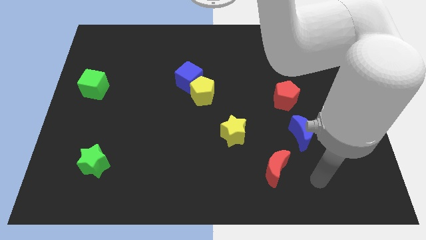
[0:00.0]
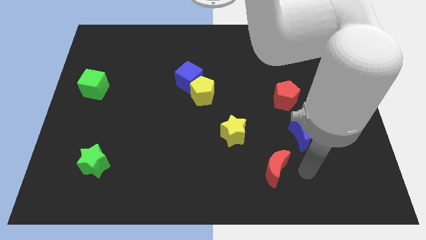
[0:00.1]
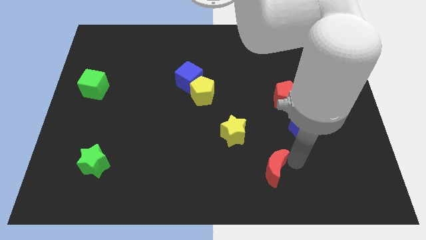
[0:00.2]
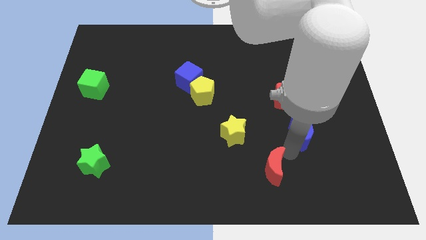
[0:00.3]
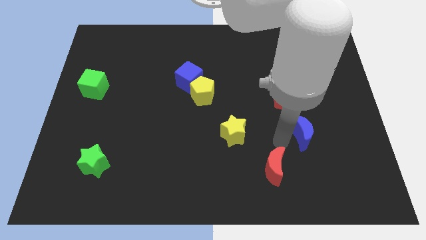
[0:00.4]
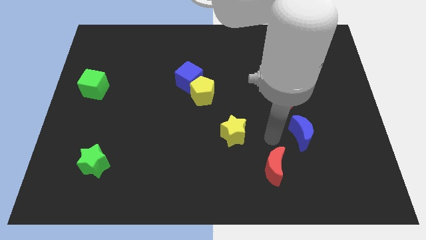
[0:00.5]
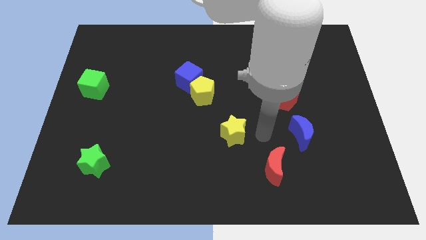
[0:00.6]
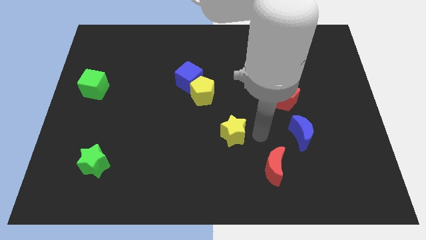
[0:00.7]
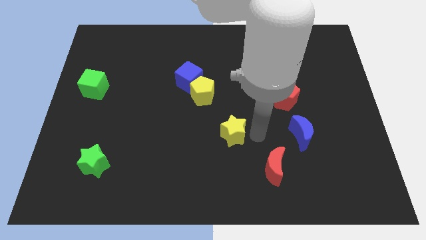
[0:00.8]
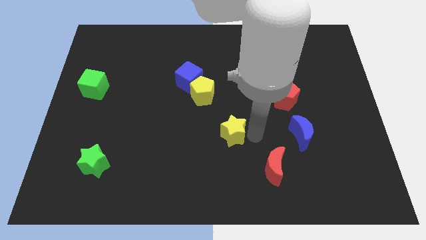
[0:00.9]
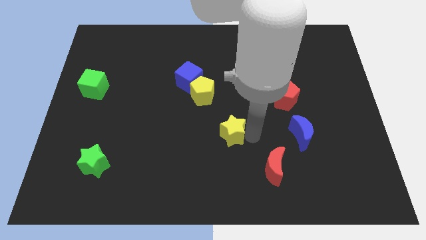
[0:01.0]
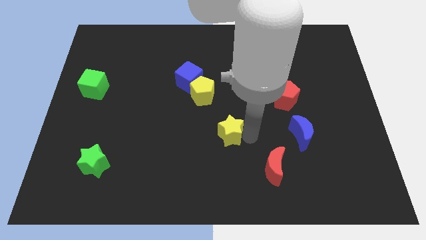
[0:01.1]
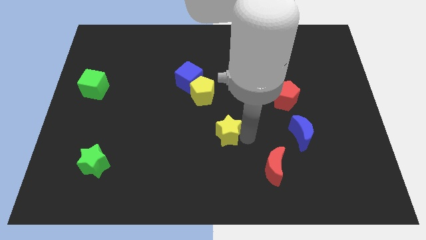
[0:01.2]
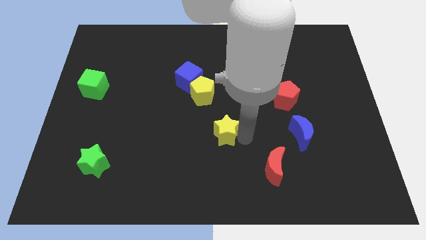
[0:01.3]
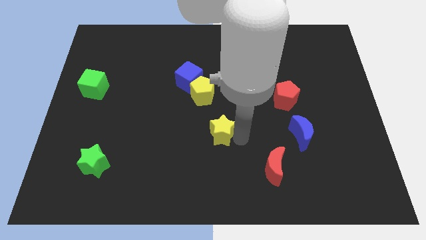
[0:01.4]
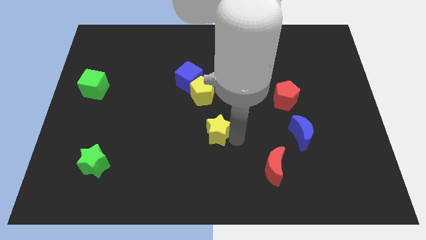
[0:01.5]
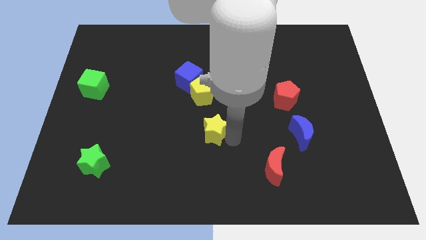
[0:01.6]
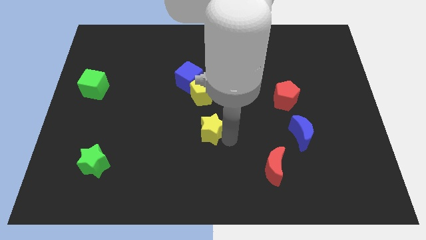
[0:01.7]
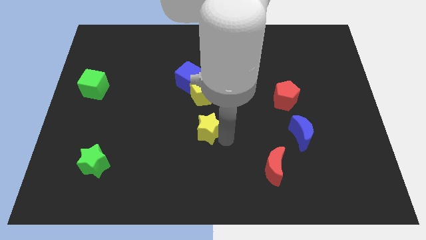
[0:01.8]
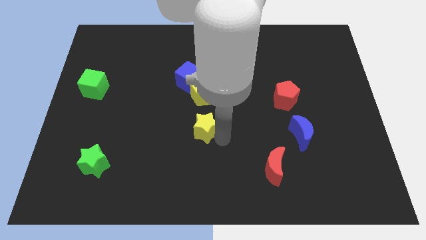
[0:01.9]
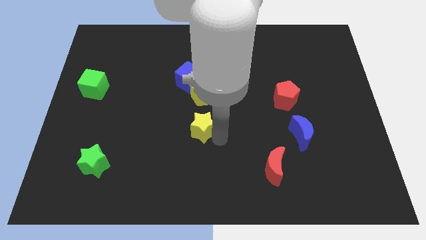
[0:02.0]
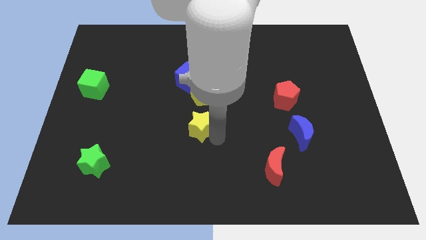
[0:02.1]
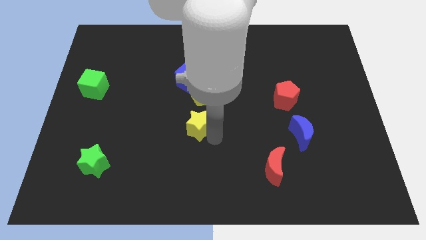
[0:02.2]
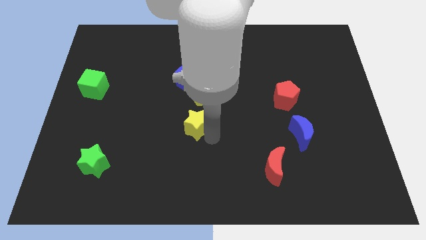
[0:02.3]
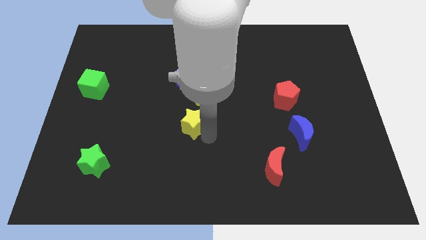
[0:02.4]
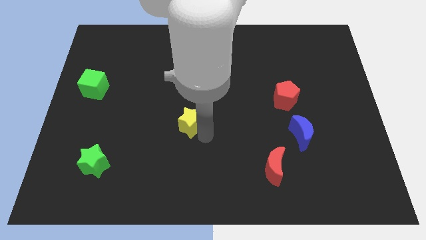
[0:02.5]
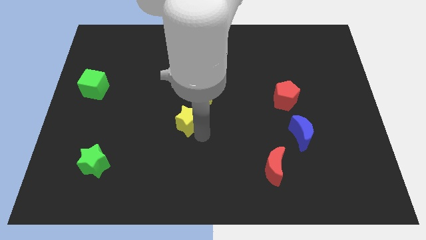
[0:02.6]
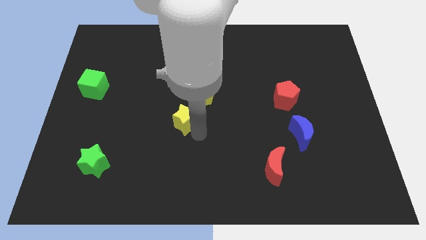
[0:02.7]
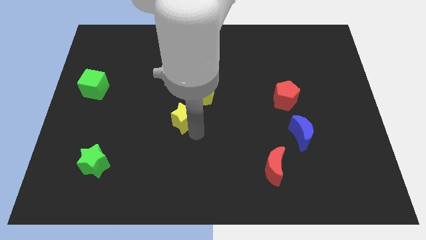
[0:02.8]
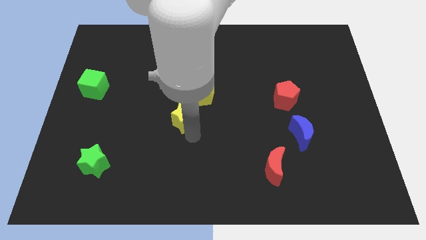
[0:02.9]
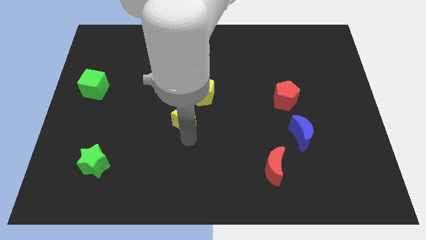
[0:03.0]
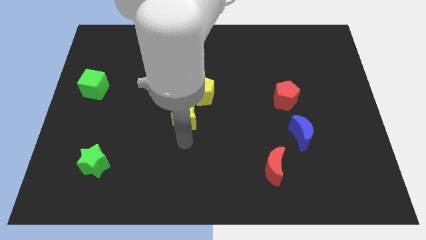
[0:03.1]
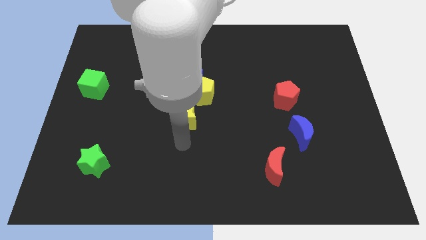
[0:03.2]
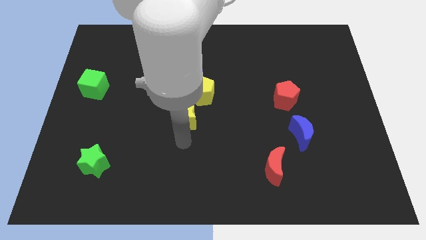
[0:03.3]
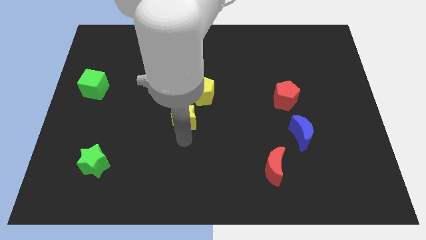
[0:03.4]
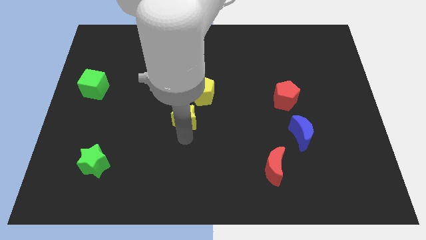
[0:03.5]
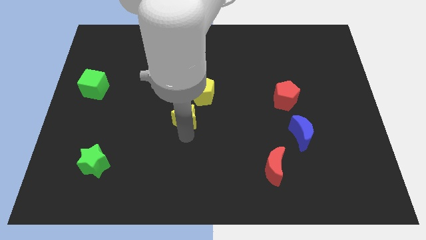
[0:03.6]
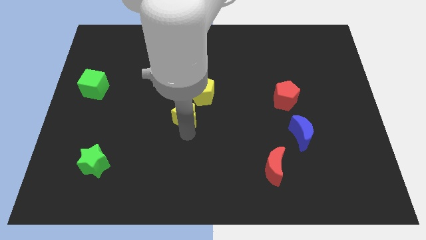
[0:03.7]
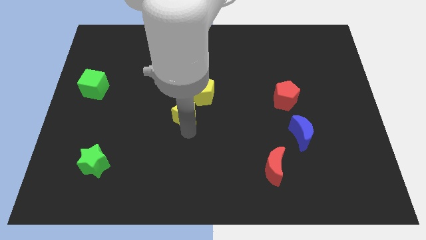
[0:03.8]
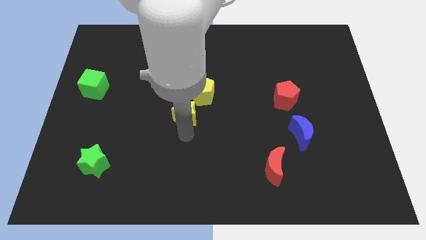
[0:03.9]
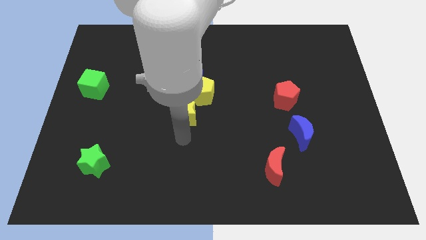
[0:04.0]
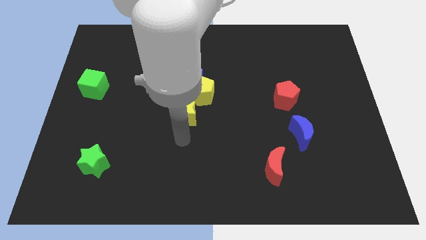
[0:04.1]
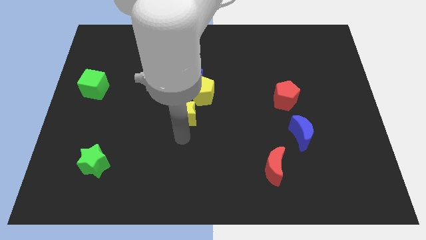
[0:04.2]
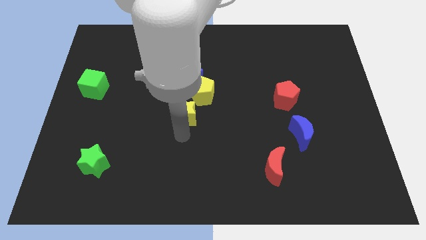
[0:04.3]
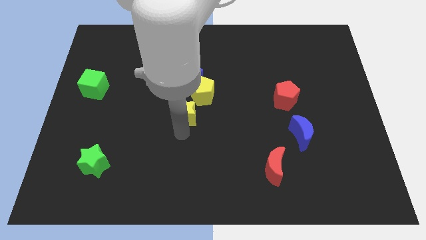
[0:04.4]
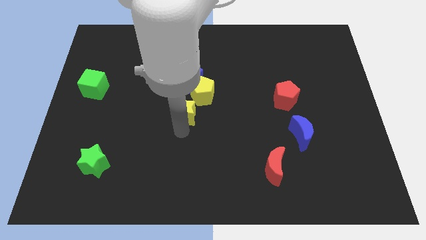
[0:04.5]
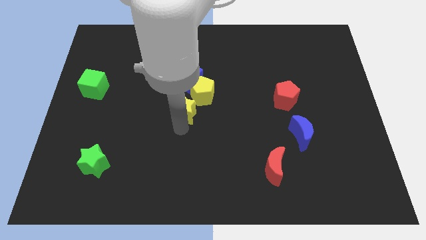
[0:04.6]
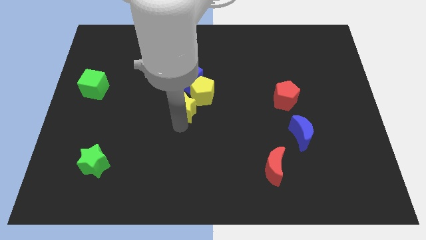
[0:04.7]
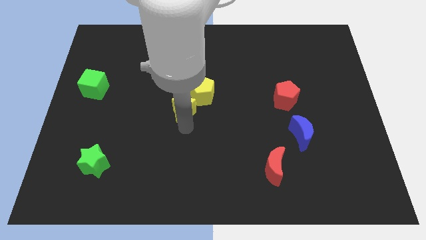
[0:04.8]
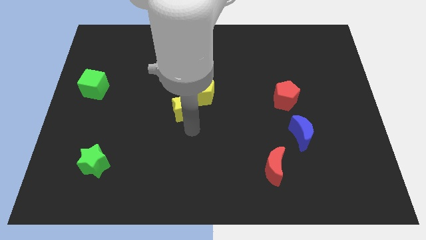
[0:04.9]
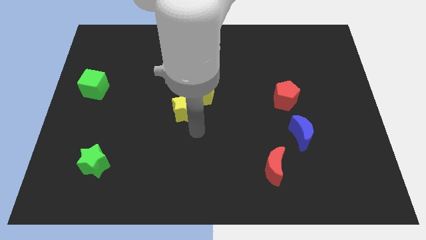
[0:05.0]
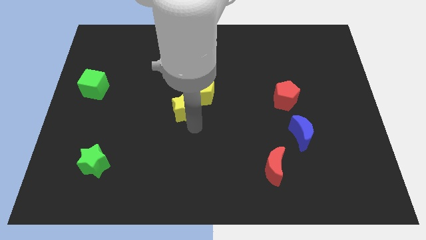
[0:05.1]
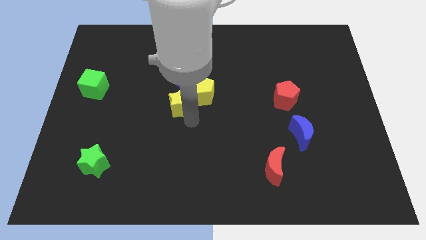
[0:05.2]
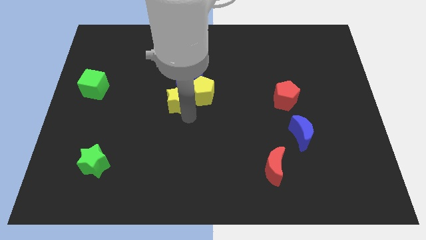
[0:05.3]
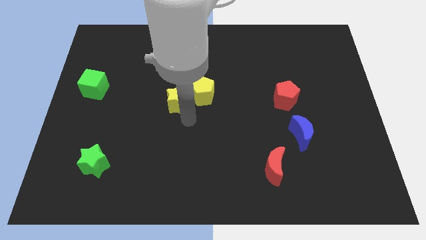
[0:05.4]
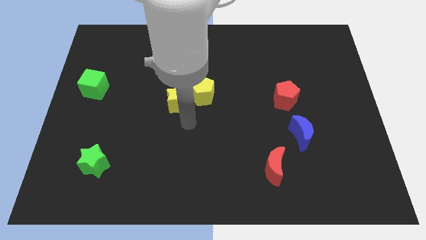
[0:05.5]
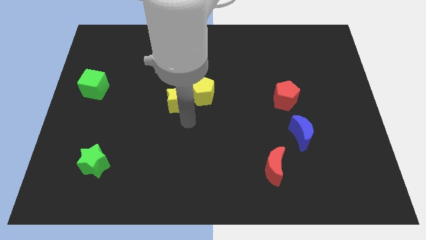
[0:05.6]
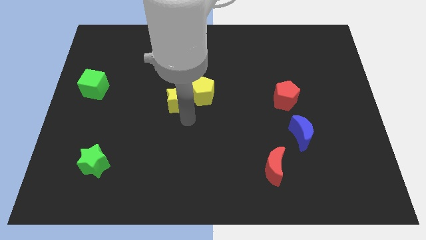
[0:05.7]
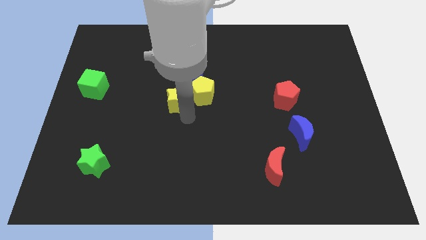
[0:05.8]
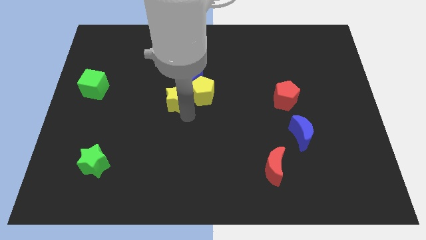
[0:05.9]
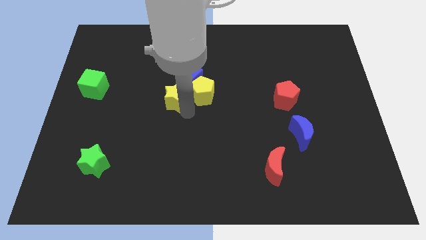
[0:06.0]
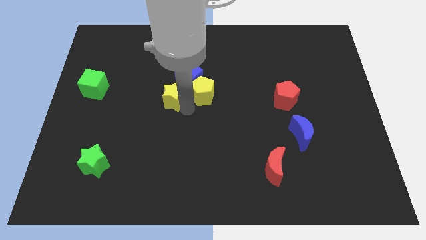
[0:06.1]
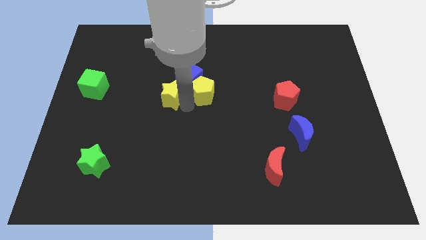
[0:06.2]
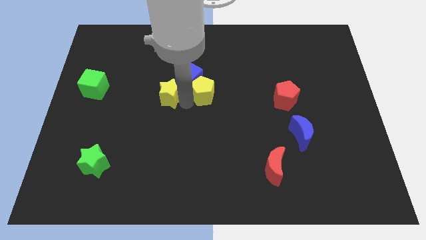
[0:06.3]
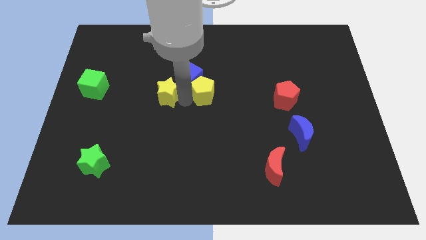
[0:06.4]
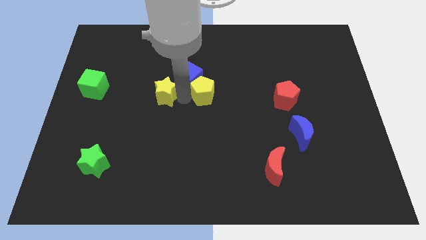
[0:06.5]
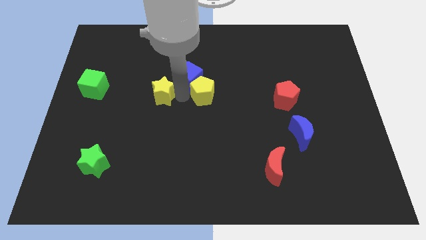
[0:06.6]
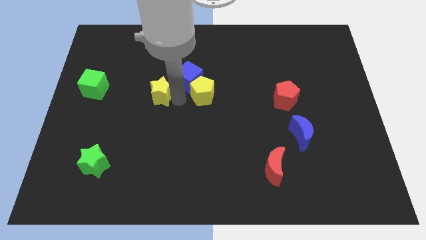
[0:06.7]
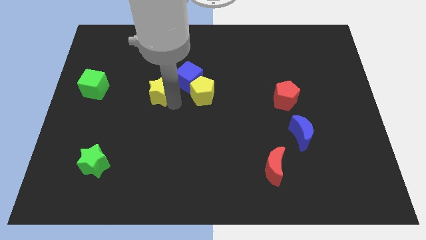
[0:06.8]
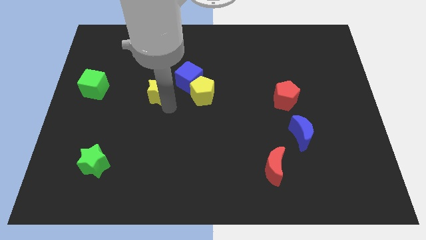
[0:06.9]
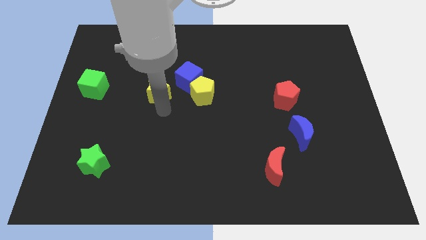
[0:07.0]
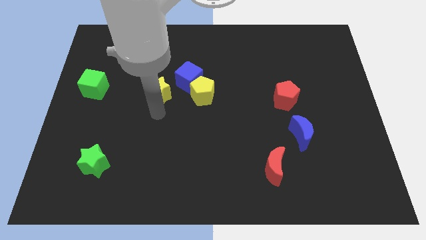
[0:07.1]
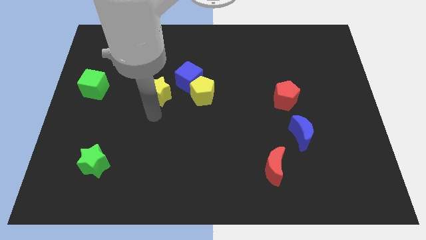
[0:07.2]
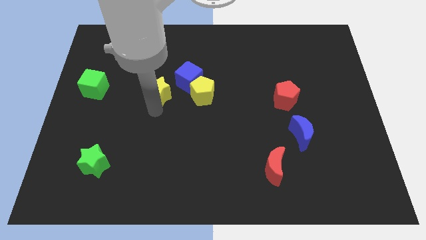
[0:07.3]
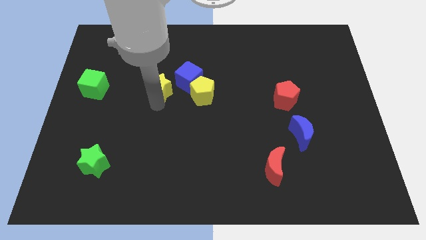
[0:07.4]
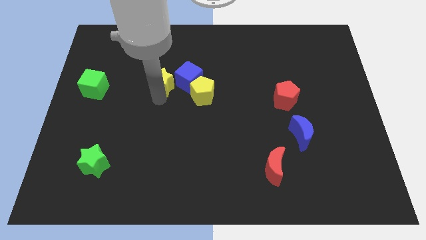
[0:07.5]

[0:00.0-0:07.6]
slide the yellow star to the top left of the yellow pentagon
